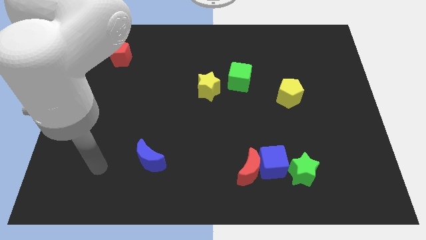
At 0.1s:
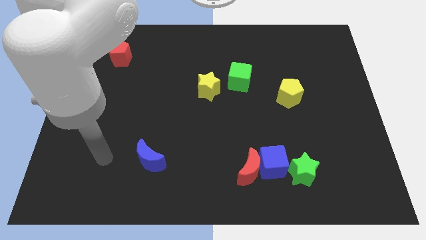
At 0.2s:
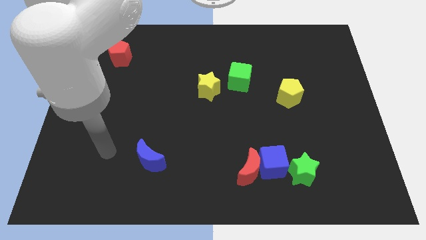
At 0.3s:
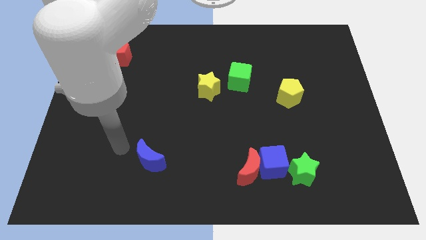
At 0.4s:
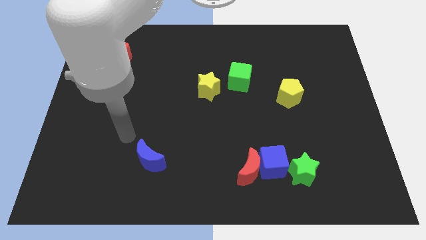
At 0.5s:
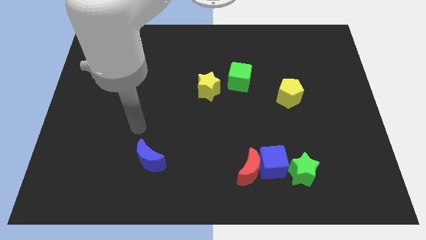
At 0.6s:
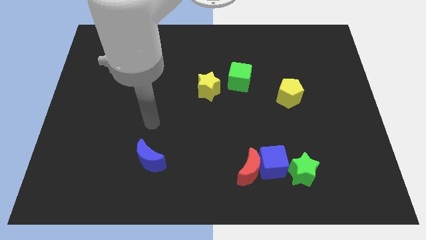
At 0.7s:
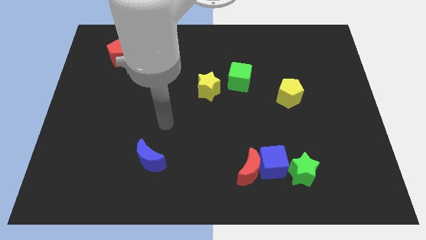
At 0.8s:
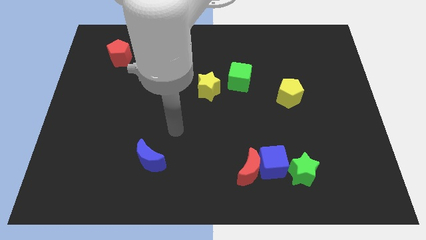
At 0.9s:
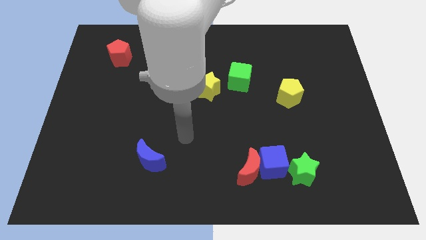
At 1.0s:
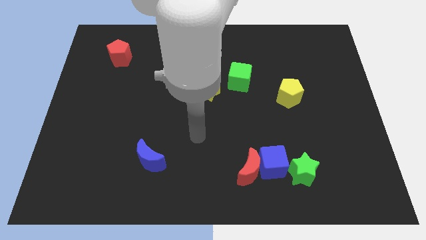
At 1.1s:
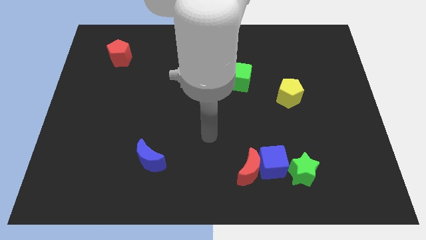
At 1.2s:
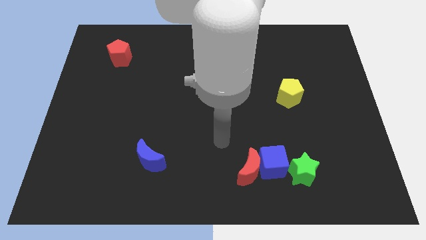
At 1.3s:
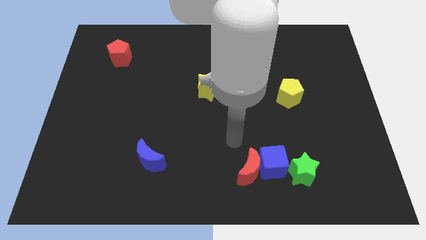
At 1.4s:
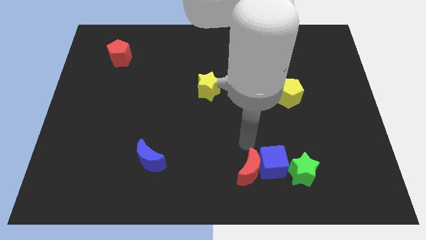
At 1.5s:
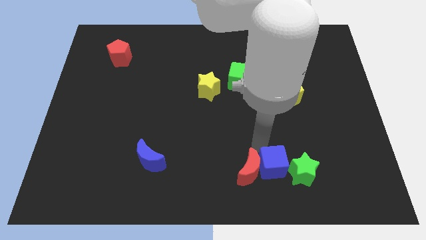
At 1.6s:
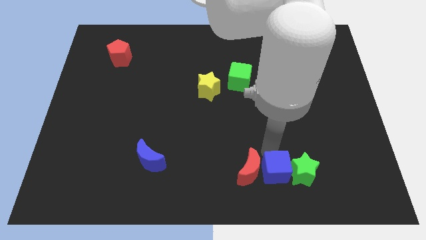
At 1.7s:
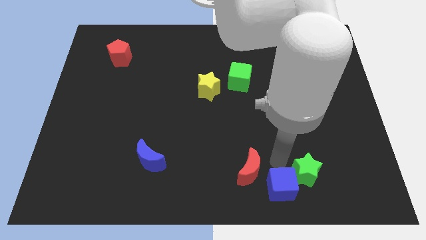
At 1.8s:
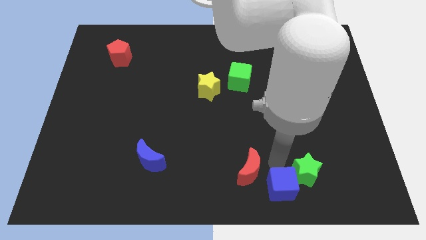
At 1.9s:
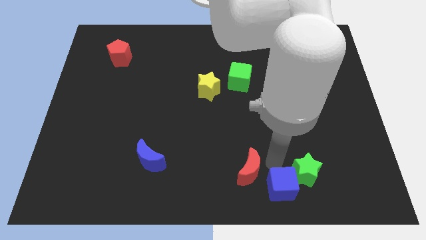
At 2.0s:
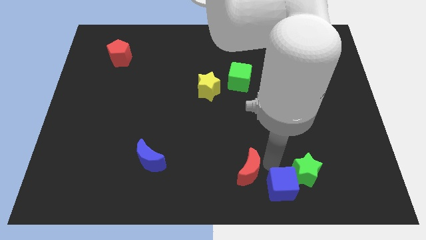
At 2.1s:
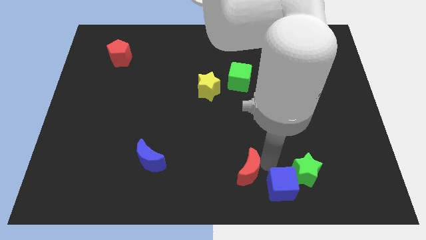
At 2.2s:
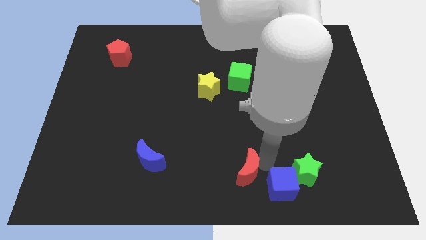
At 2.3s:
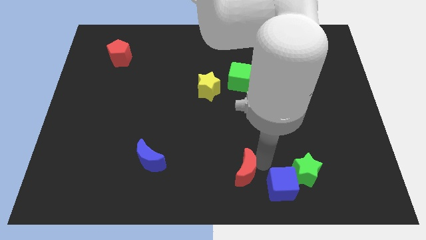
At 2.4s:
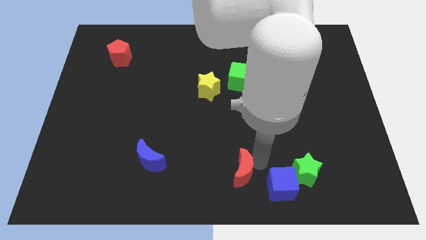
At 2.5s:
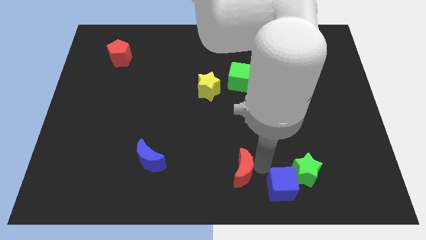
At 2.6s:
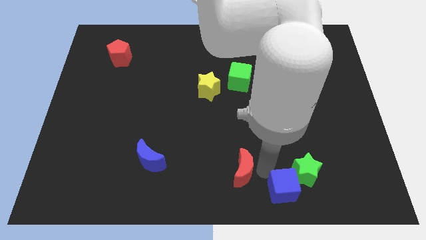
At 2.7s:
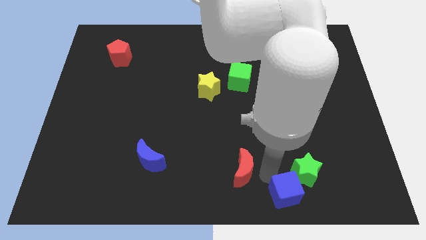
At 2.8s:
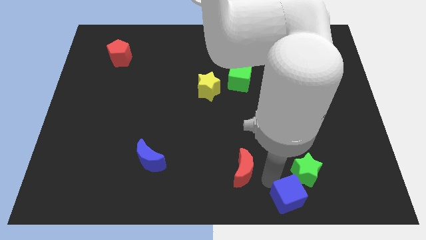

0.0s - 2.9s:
move the red moon away from the blue cube

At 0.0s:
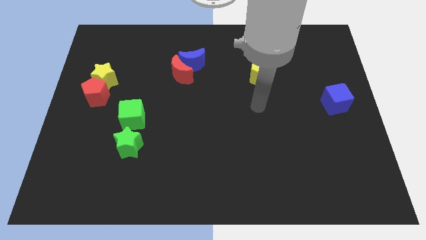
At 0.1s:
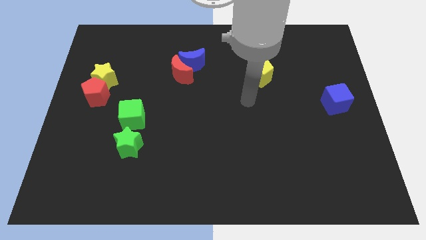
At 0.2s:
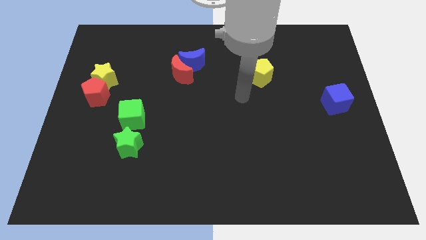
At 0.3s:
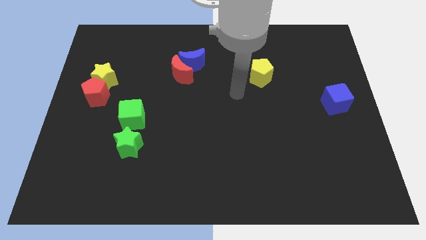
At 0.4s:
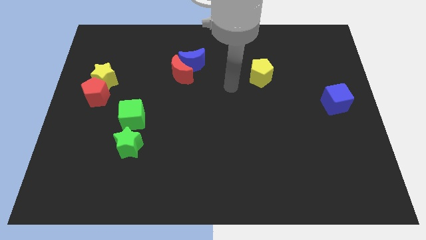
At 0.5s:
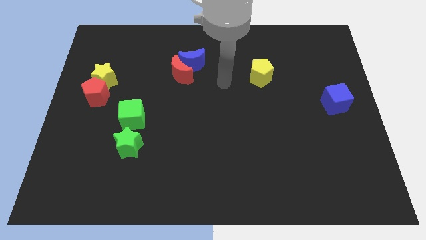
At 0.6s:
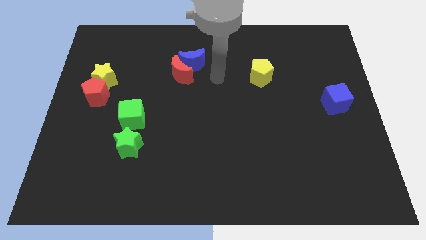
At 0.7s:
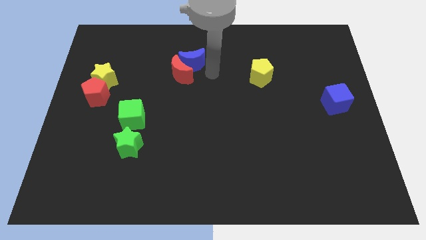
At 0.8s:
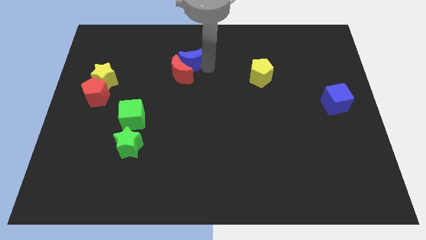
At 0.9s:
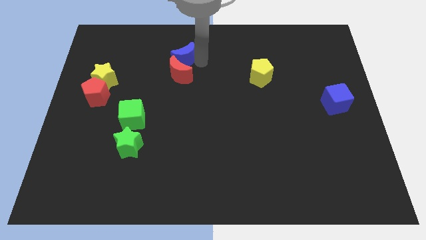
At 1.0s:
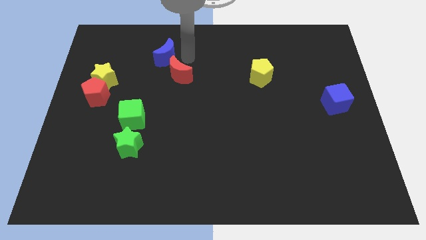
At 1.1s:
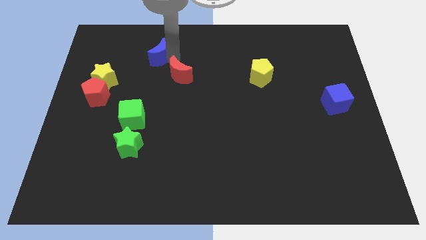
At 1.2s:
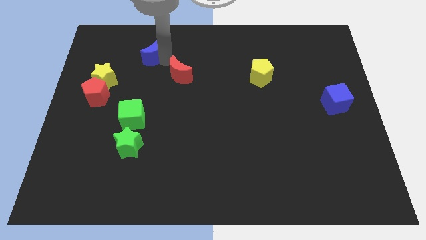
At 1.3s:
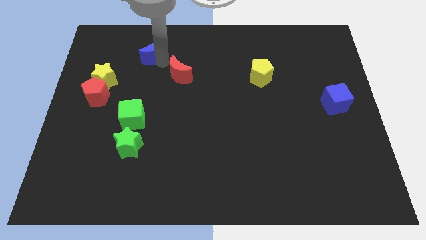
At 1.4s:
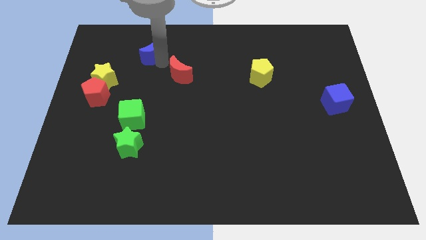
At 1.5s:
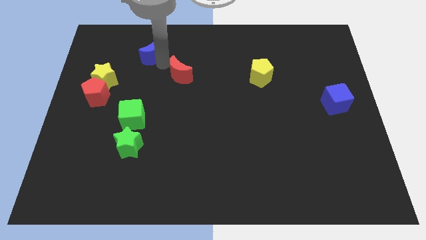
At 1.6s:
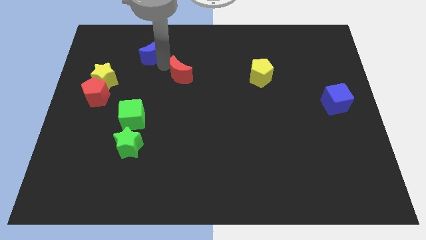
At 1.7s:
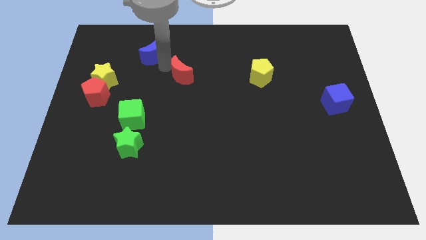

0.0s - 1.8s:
pull the red moon apart from the blue moon

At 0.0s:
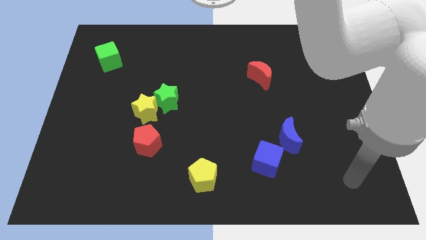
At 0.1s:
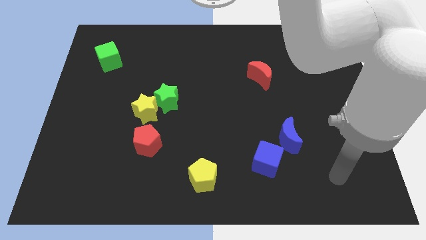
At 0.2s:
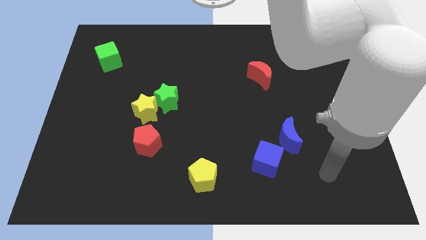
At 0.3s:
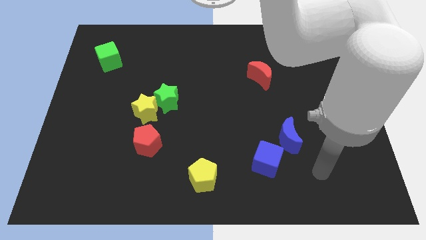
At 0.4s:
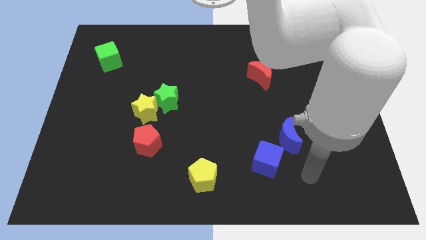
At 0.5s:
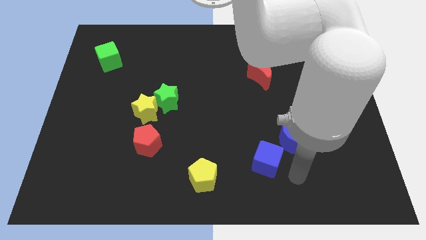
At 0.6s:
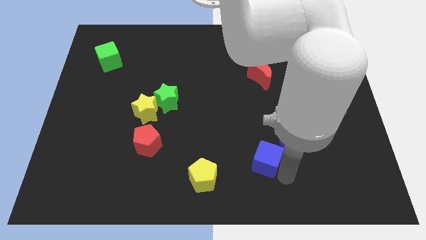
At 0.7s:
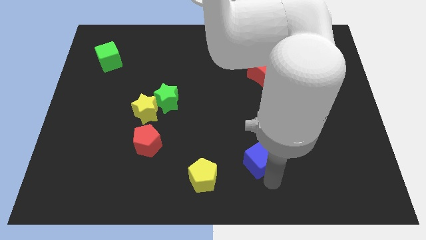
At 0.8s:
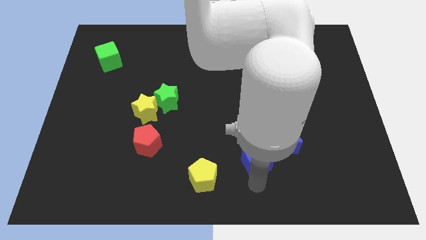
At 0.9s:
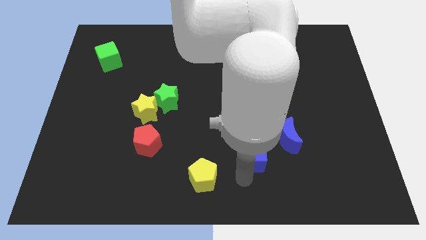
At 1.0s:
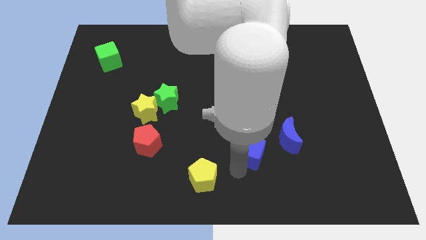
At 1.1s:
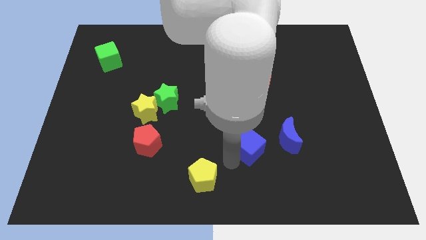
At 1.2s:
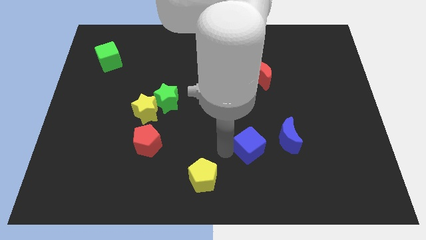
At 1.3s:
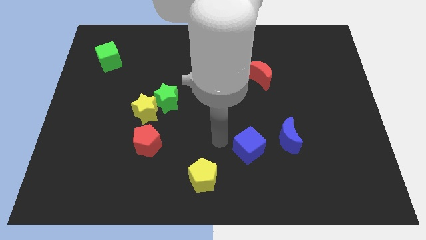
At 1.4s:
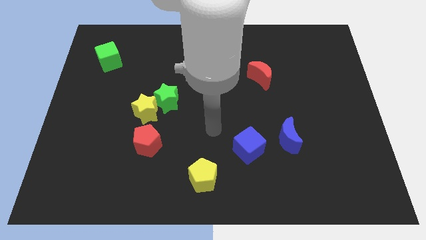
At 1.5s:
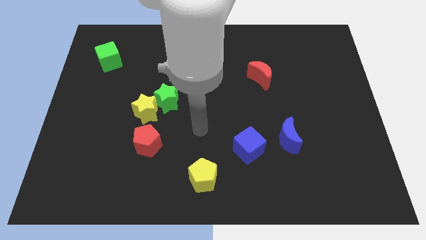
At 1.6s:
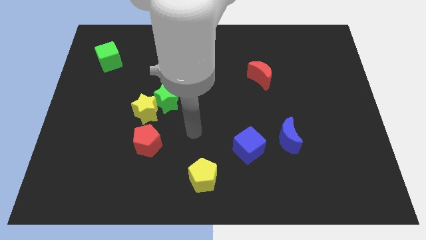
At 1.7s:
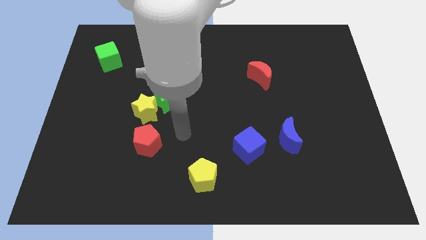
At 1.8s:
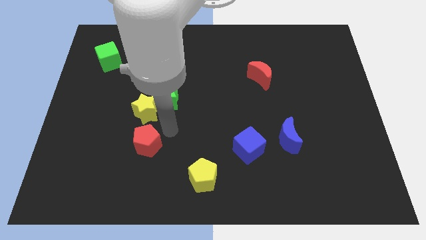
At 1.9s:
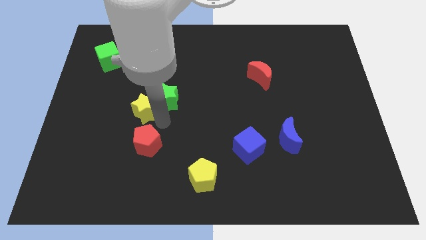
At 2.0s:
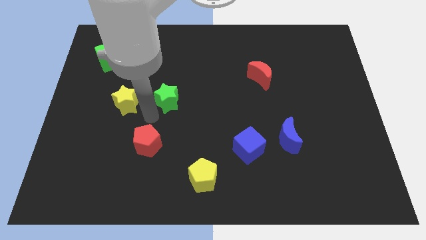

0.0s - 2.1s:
move the green star away from the yellow star

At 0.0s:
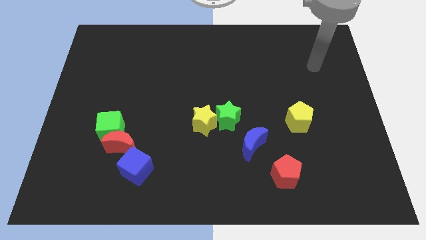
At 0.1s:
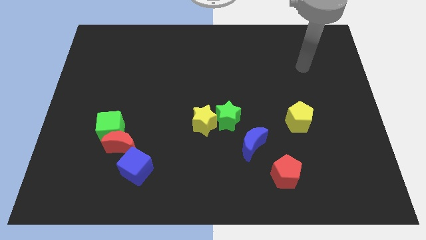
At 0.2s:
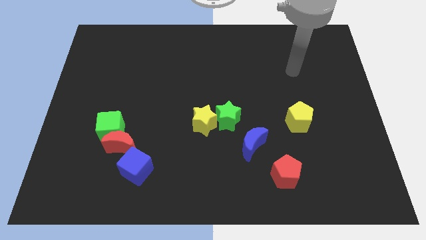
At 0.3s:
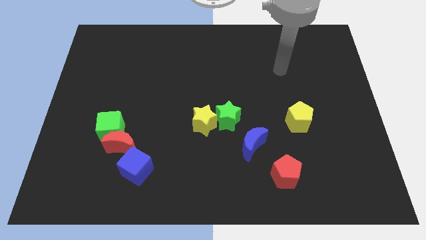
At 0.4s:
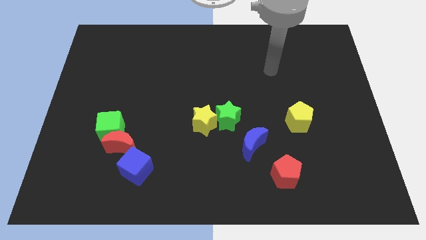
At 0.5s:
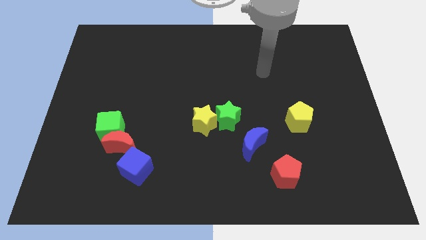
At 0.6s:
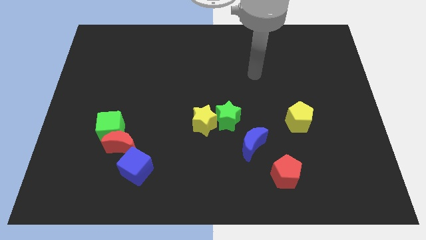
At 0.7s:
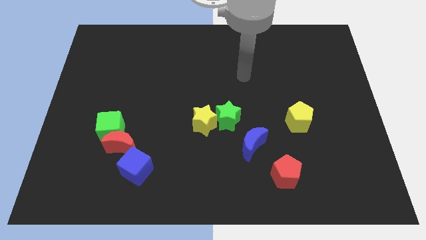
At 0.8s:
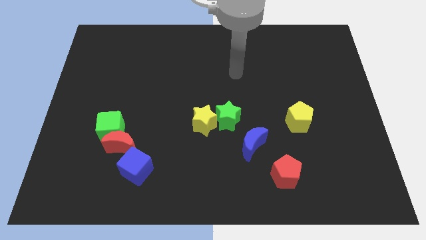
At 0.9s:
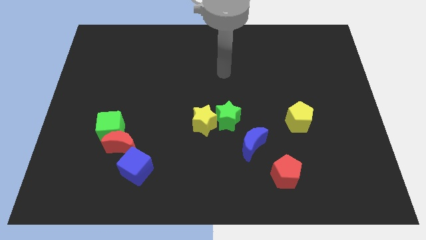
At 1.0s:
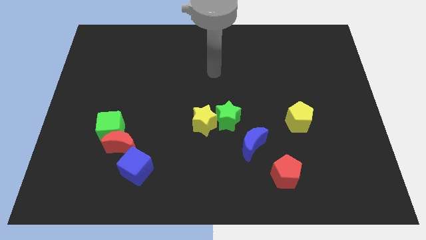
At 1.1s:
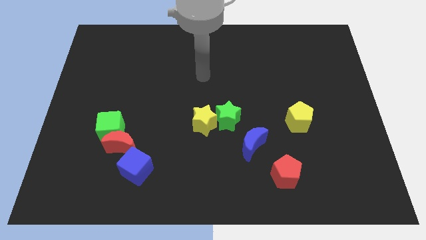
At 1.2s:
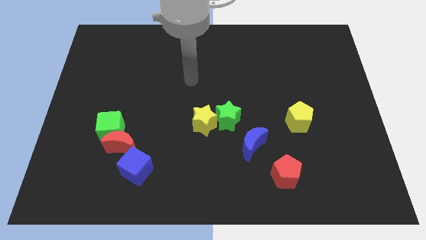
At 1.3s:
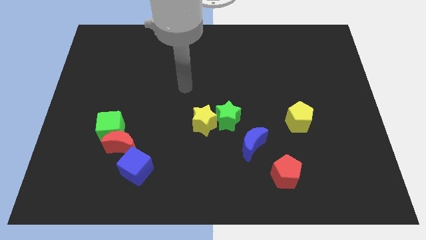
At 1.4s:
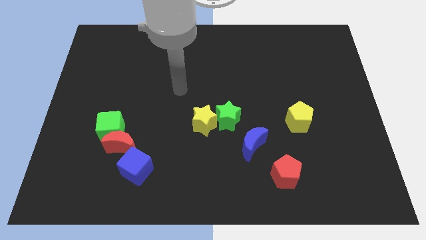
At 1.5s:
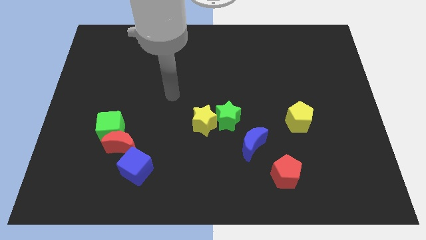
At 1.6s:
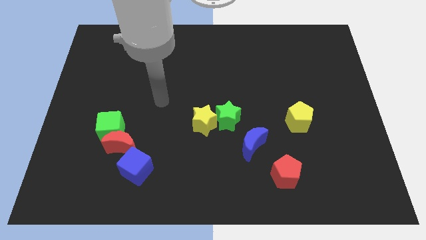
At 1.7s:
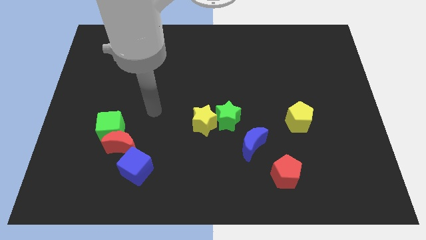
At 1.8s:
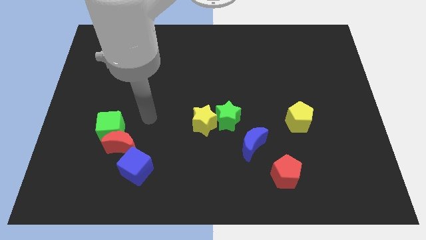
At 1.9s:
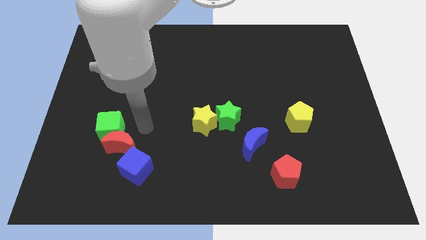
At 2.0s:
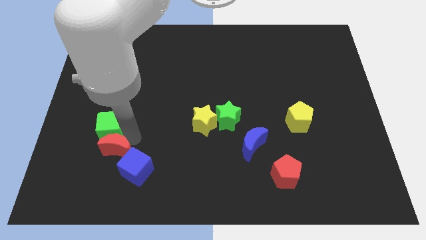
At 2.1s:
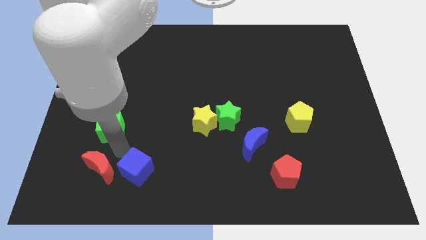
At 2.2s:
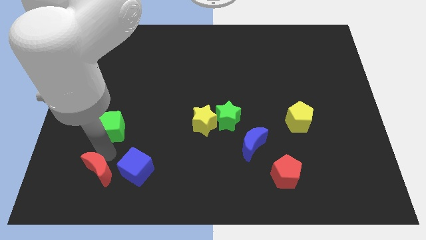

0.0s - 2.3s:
separate the green cube from the red moon
